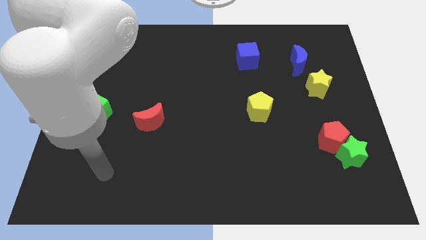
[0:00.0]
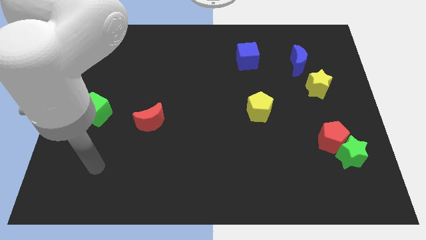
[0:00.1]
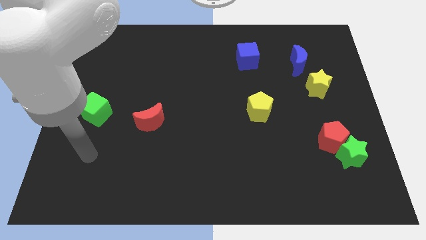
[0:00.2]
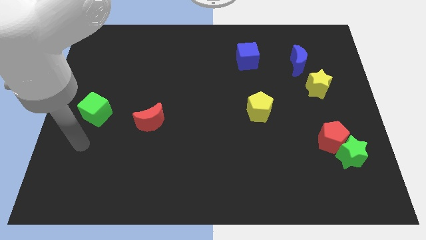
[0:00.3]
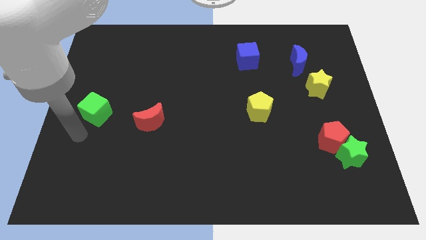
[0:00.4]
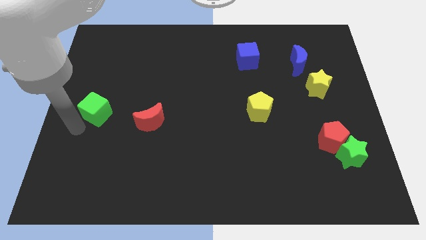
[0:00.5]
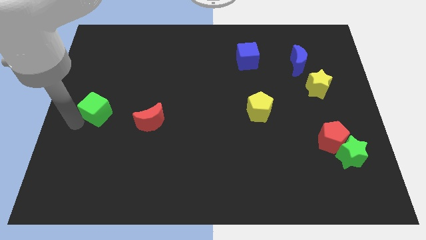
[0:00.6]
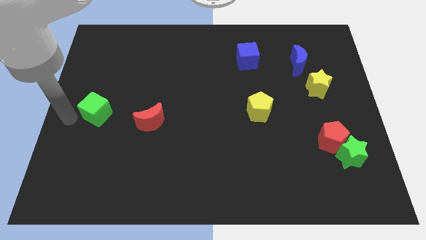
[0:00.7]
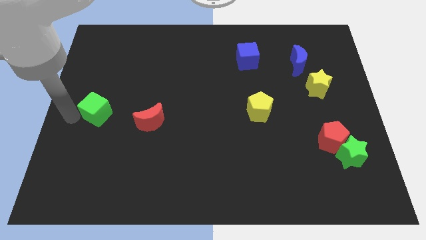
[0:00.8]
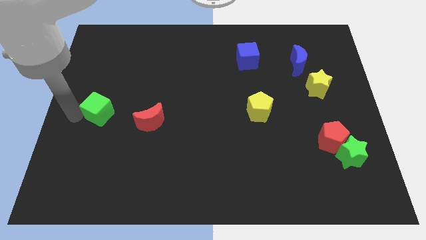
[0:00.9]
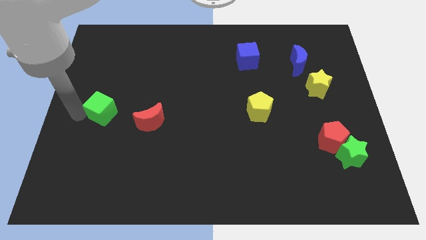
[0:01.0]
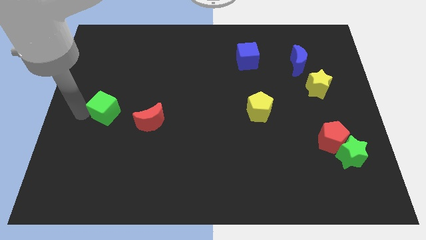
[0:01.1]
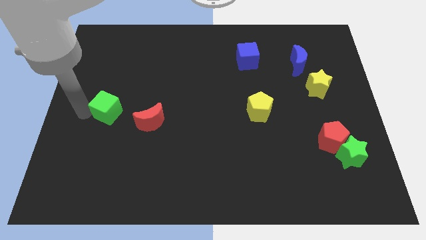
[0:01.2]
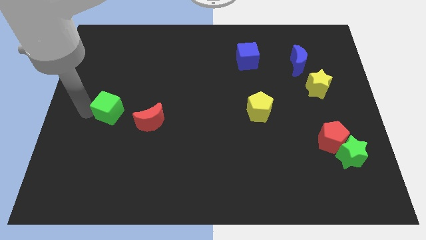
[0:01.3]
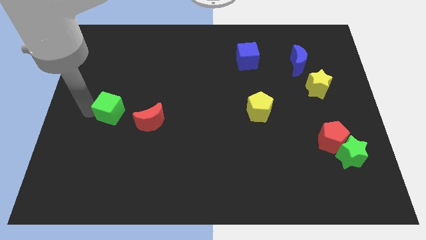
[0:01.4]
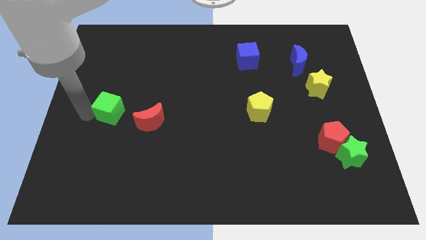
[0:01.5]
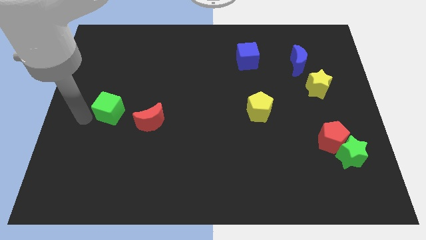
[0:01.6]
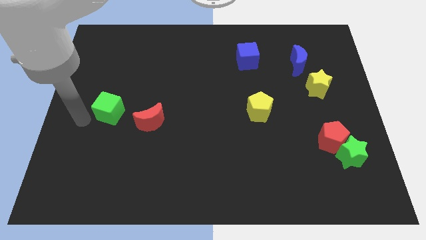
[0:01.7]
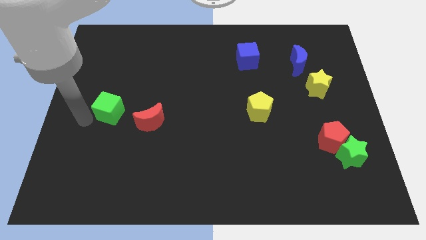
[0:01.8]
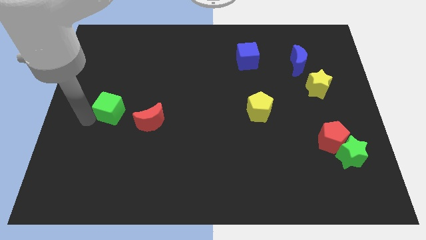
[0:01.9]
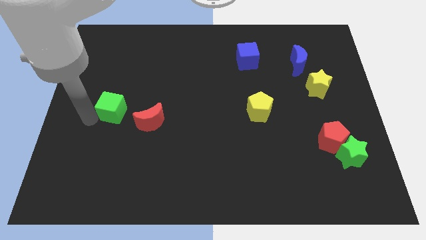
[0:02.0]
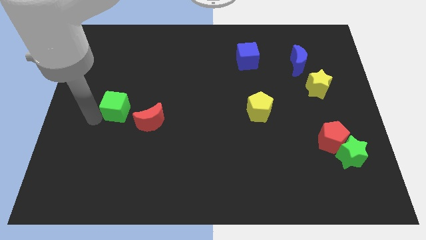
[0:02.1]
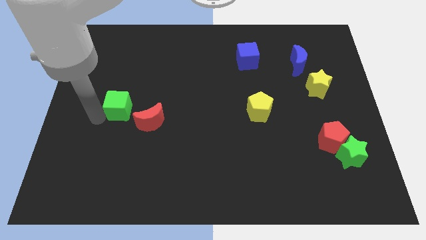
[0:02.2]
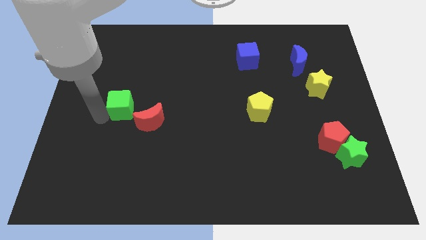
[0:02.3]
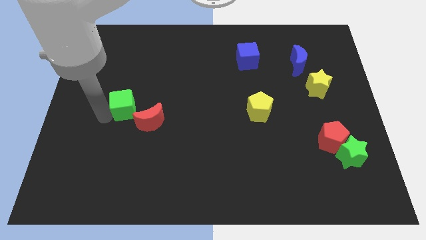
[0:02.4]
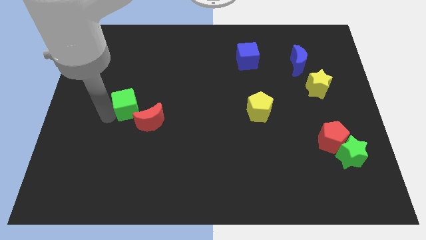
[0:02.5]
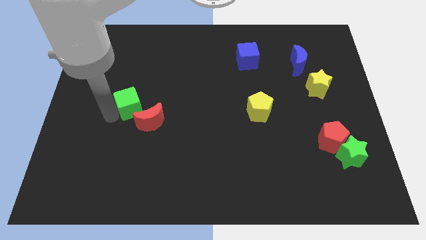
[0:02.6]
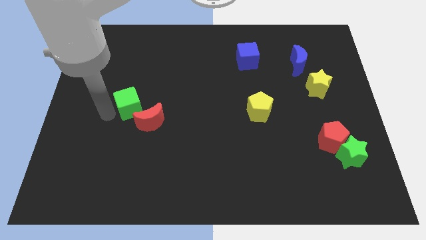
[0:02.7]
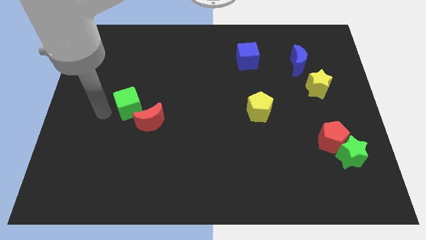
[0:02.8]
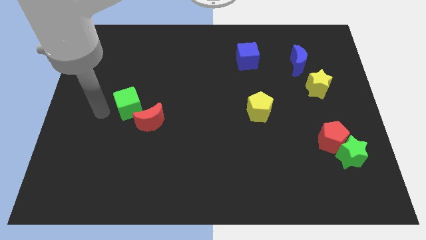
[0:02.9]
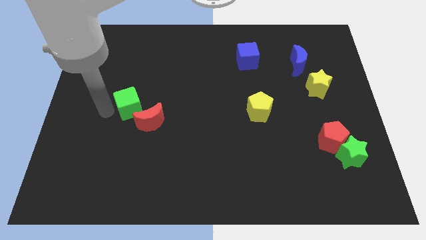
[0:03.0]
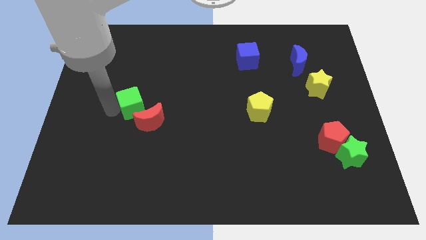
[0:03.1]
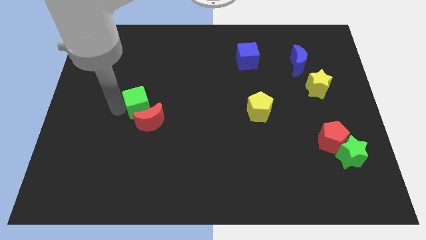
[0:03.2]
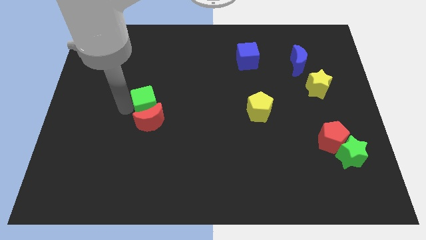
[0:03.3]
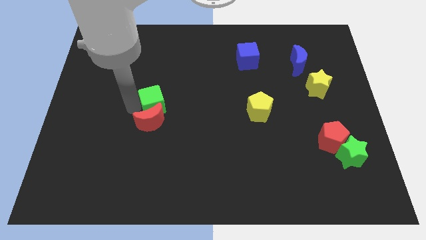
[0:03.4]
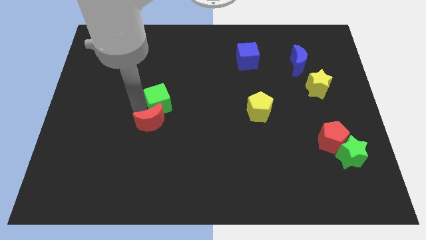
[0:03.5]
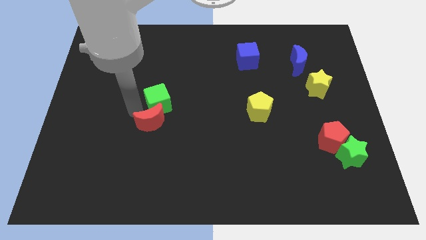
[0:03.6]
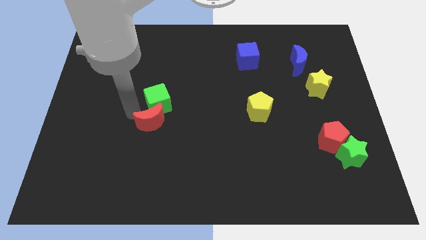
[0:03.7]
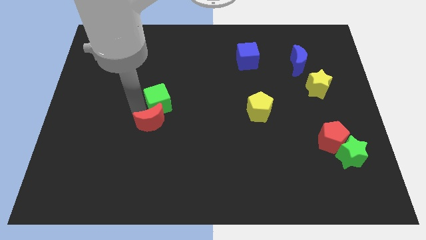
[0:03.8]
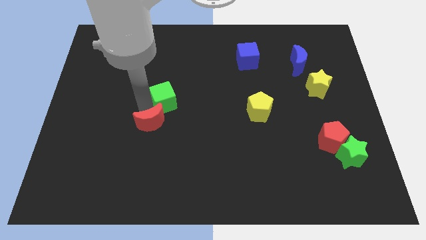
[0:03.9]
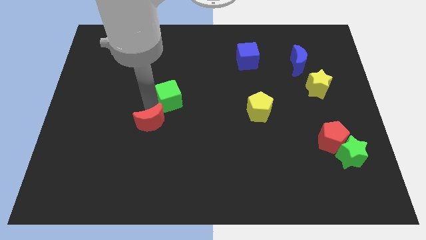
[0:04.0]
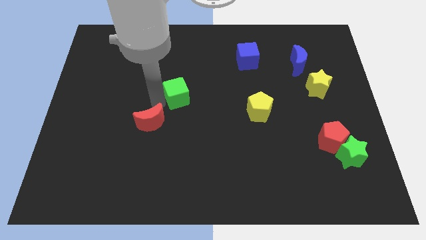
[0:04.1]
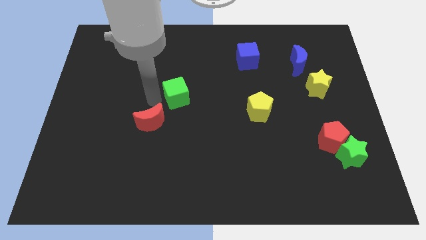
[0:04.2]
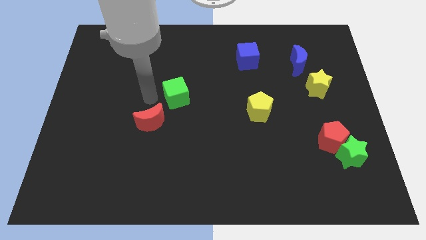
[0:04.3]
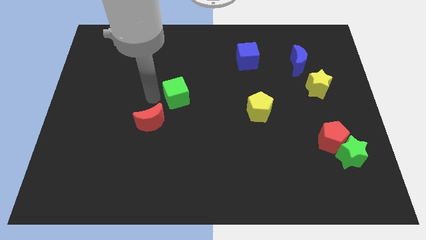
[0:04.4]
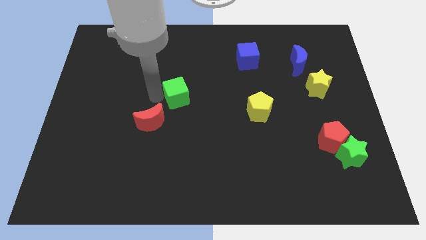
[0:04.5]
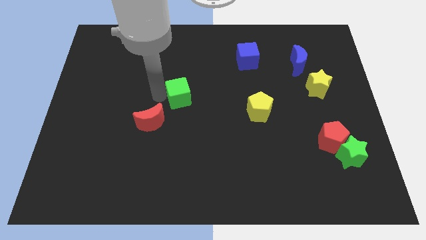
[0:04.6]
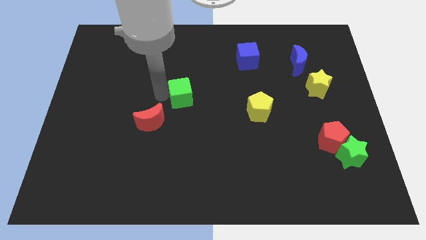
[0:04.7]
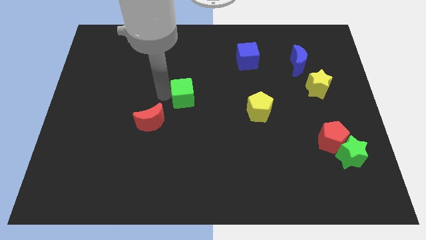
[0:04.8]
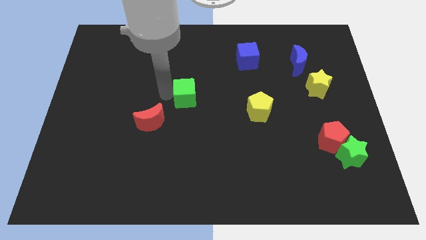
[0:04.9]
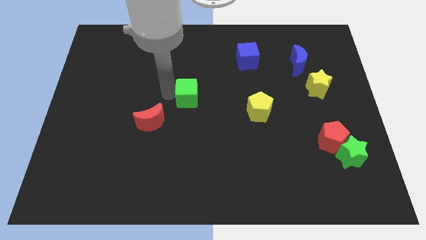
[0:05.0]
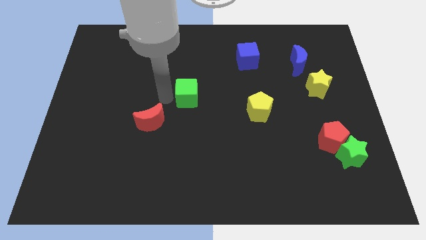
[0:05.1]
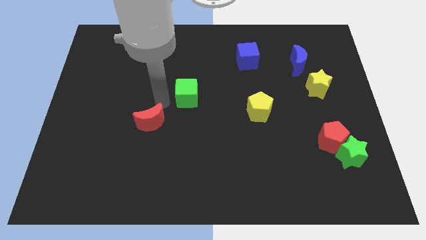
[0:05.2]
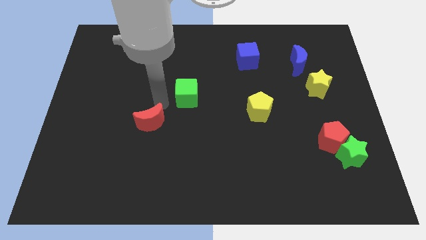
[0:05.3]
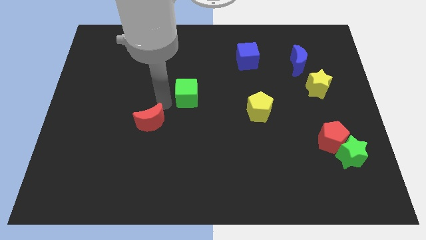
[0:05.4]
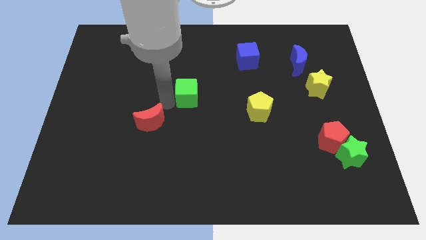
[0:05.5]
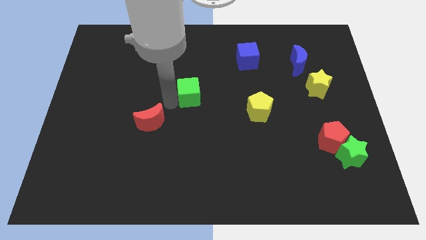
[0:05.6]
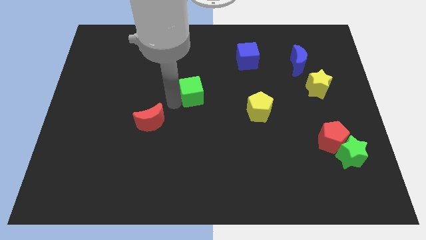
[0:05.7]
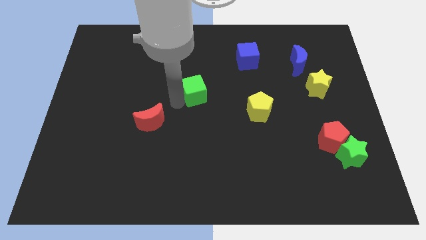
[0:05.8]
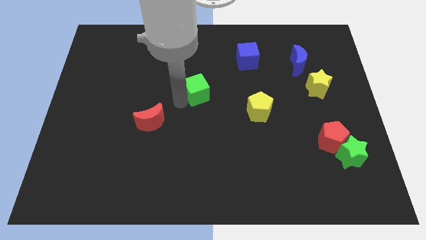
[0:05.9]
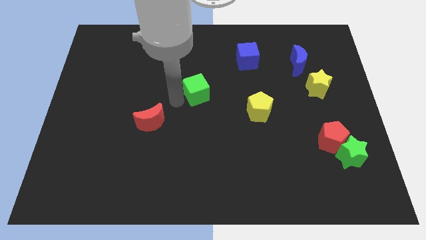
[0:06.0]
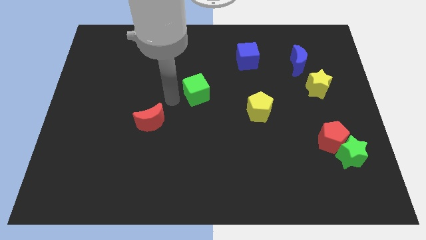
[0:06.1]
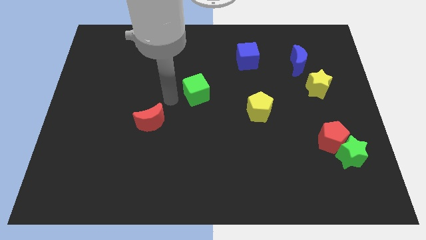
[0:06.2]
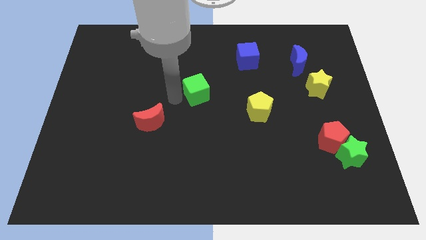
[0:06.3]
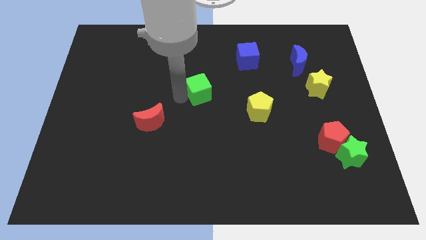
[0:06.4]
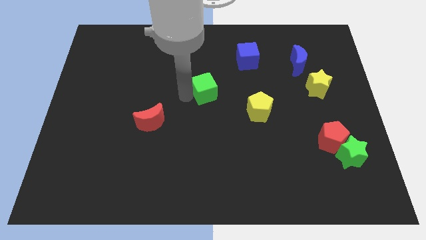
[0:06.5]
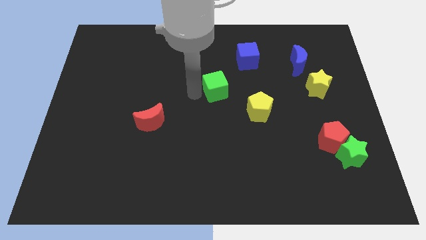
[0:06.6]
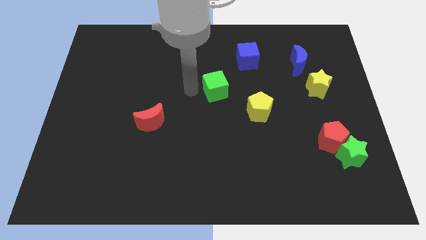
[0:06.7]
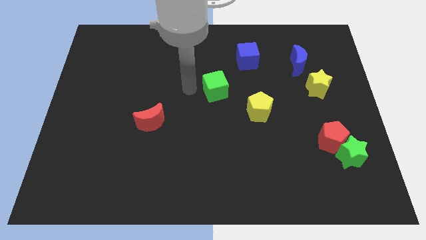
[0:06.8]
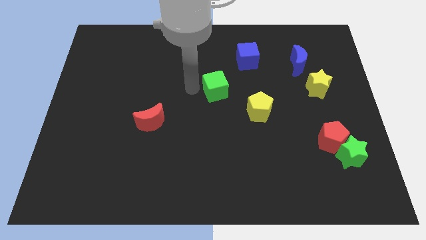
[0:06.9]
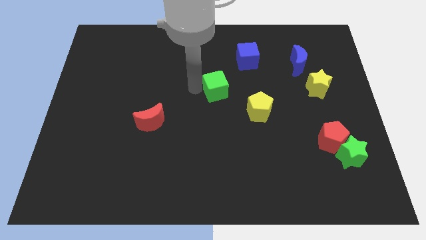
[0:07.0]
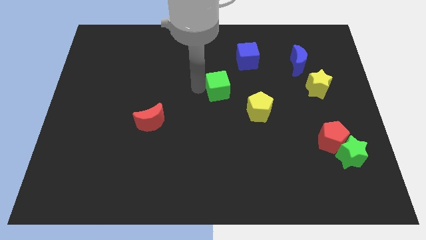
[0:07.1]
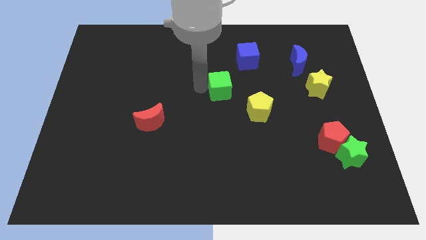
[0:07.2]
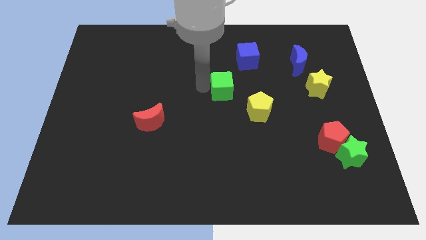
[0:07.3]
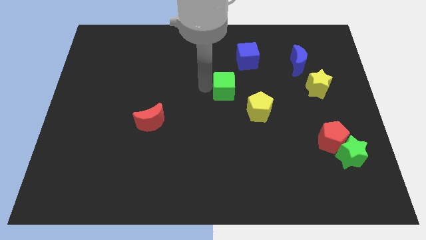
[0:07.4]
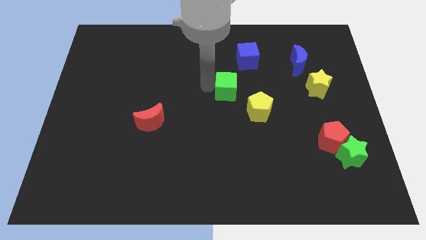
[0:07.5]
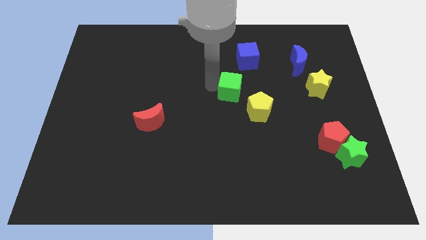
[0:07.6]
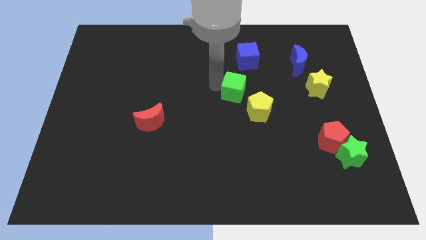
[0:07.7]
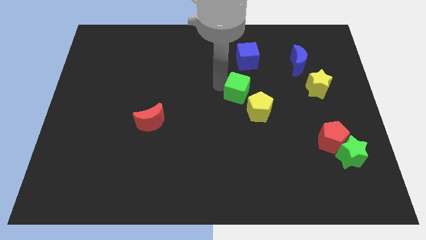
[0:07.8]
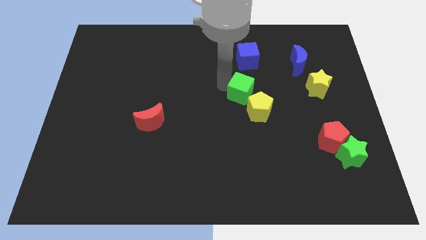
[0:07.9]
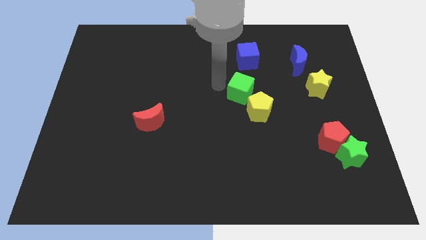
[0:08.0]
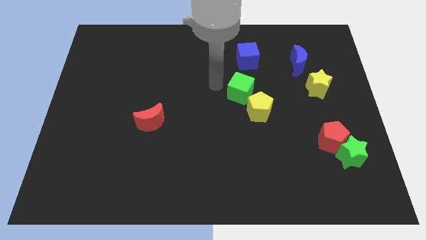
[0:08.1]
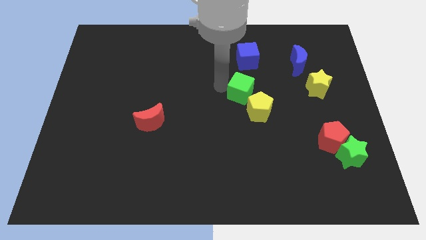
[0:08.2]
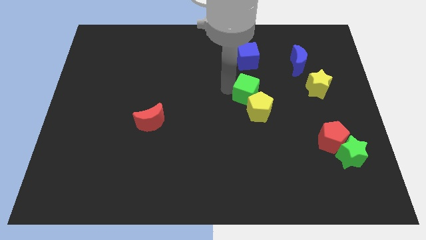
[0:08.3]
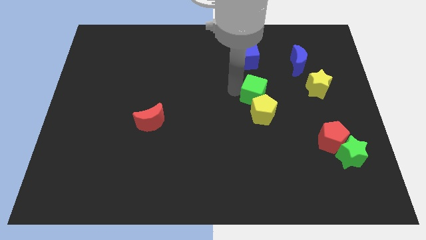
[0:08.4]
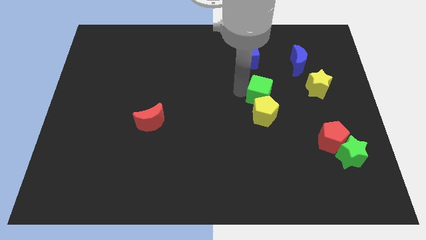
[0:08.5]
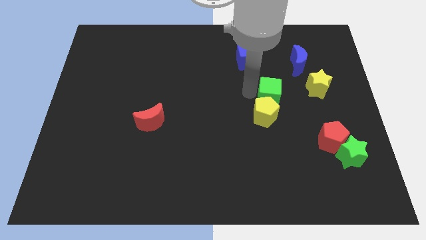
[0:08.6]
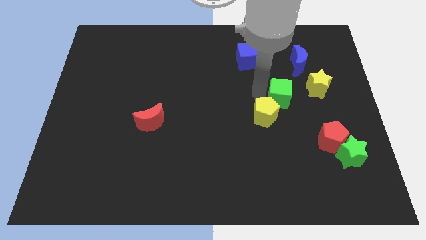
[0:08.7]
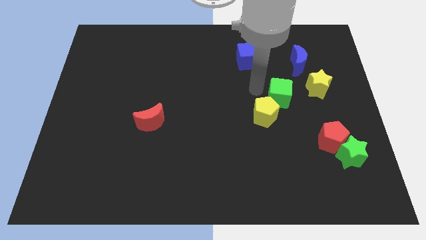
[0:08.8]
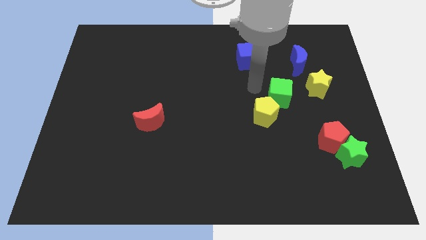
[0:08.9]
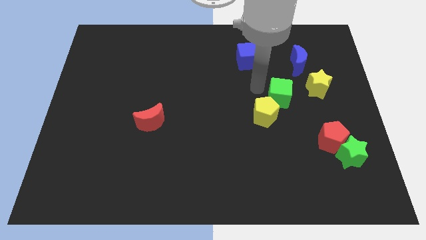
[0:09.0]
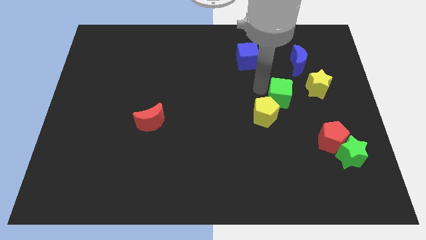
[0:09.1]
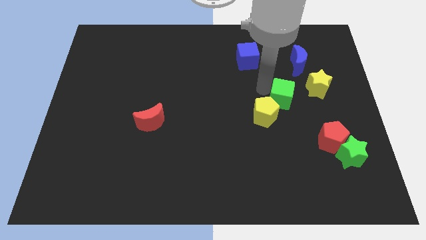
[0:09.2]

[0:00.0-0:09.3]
put the green cube to the bottom left side of the yellow star
